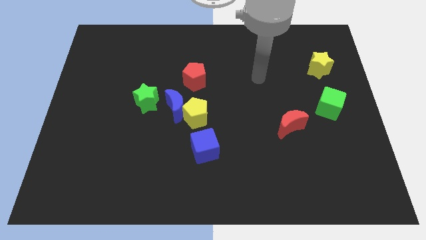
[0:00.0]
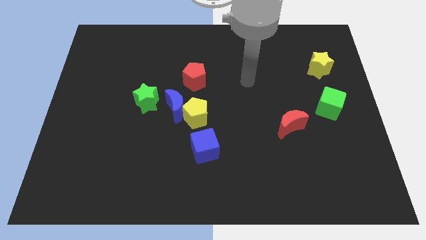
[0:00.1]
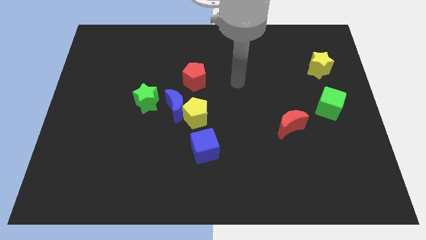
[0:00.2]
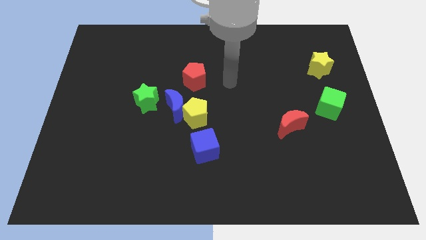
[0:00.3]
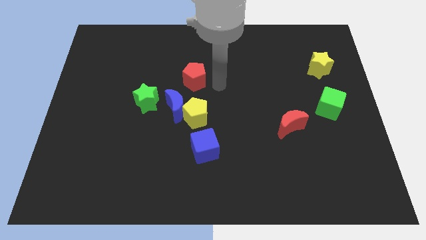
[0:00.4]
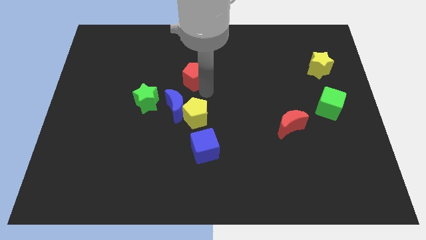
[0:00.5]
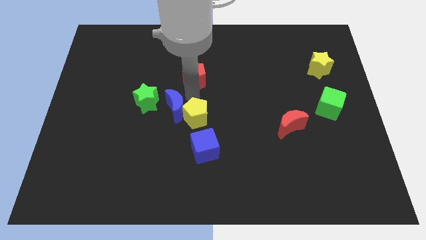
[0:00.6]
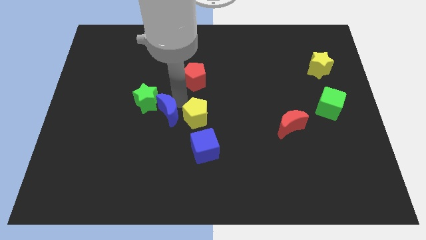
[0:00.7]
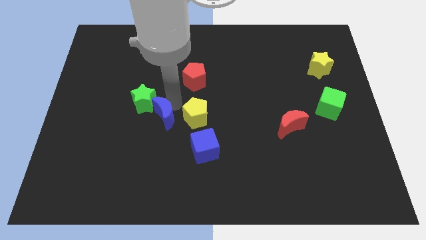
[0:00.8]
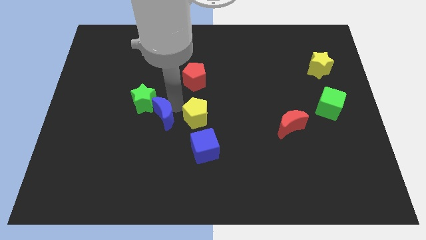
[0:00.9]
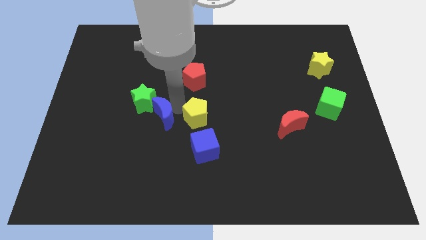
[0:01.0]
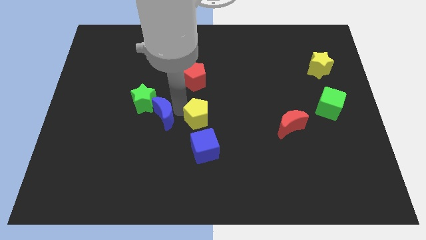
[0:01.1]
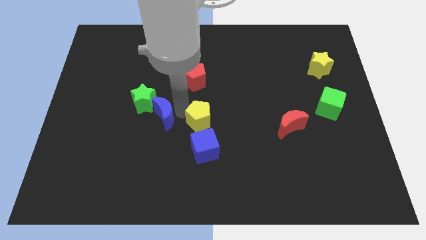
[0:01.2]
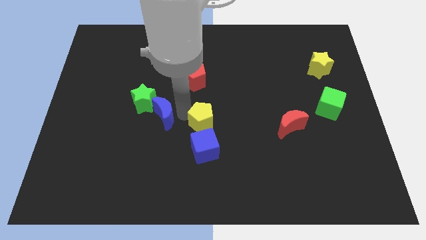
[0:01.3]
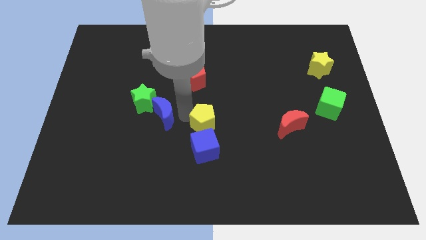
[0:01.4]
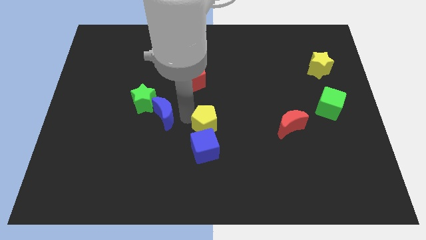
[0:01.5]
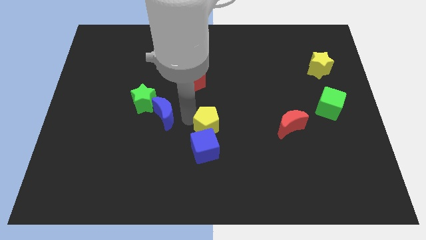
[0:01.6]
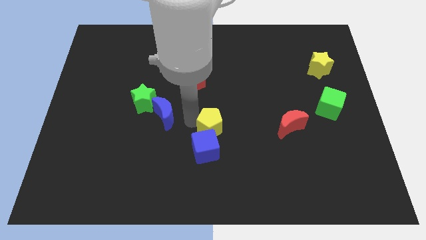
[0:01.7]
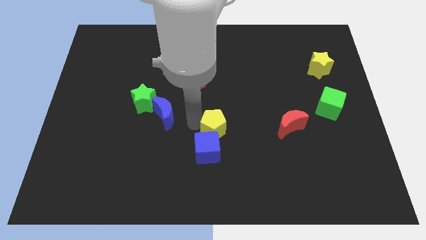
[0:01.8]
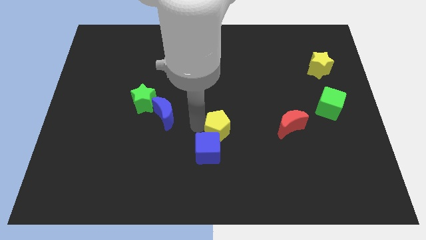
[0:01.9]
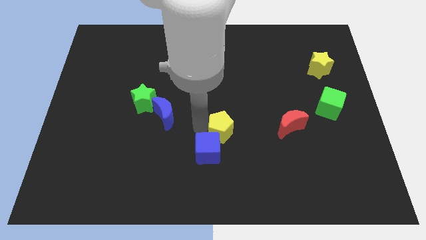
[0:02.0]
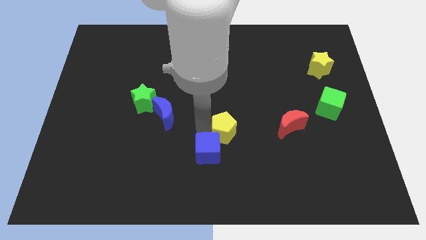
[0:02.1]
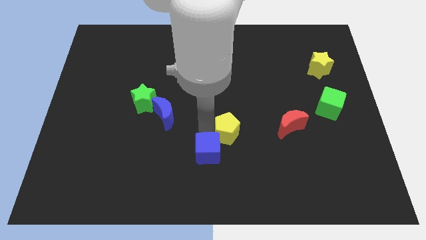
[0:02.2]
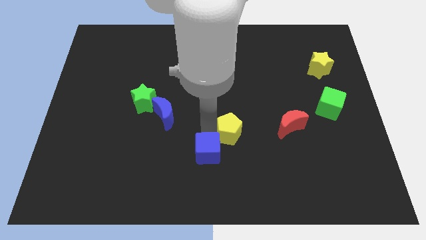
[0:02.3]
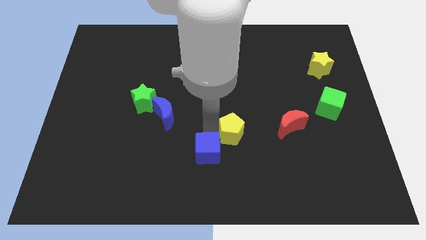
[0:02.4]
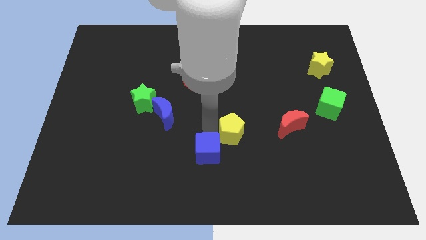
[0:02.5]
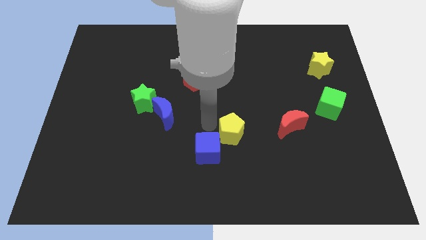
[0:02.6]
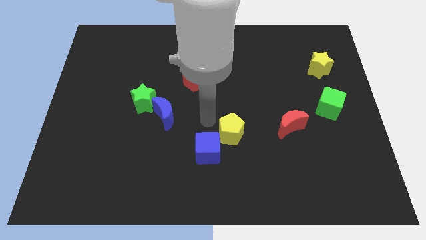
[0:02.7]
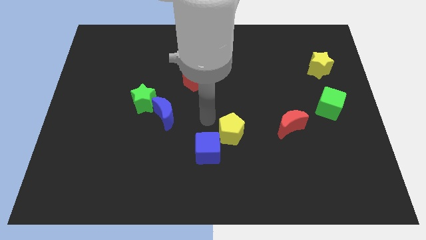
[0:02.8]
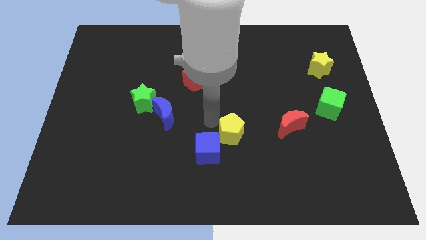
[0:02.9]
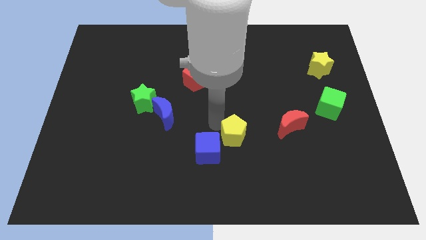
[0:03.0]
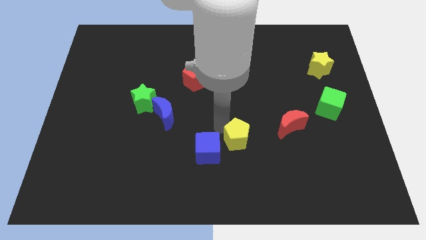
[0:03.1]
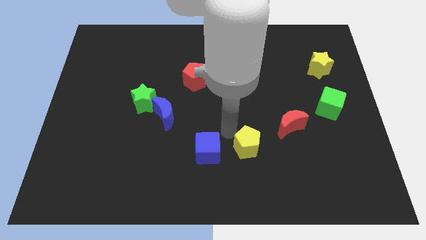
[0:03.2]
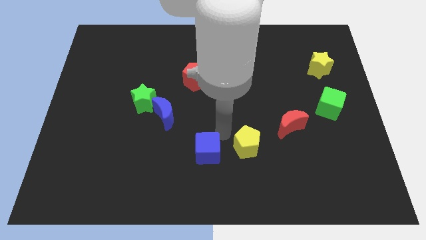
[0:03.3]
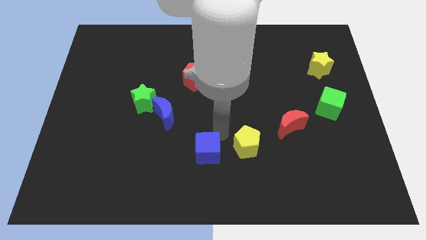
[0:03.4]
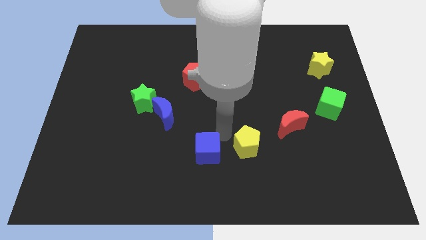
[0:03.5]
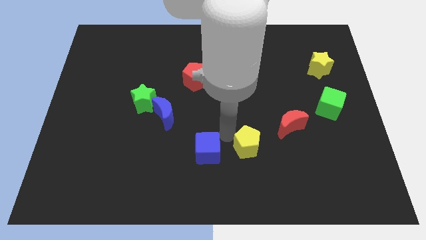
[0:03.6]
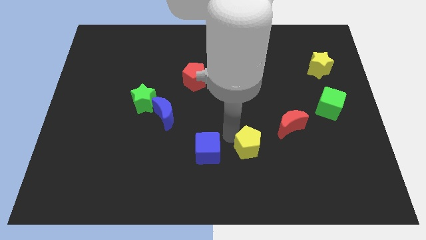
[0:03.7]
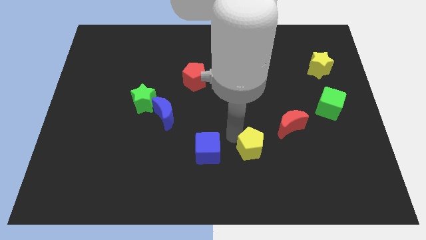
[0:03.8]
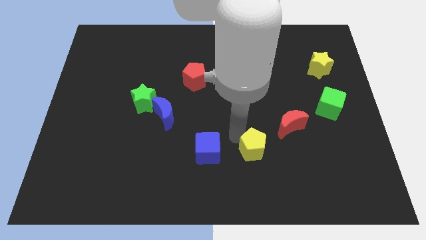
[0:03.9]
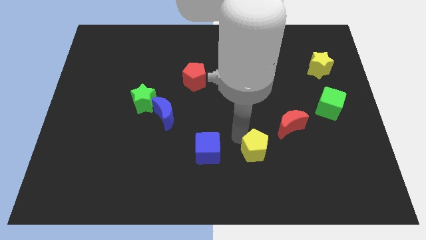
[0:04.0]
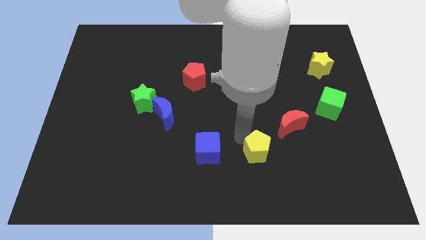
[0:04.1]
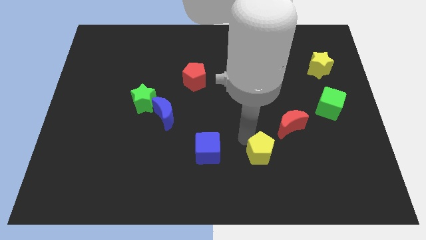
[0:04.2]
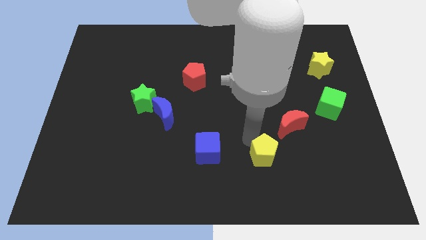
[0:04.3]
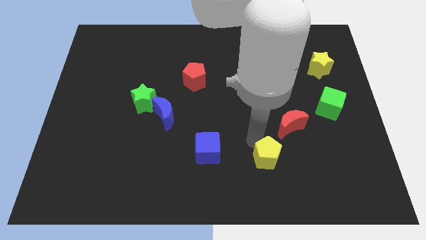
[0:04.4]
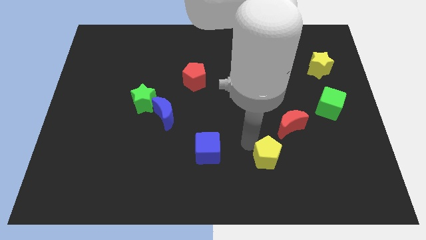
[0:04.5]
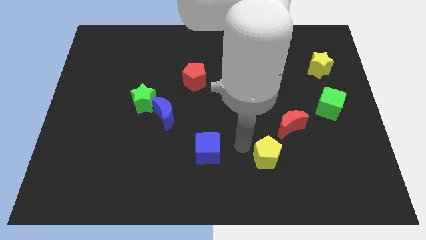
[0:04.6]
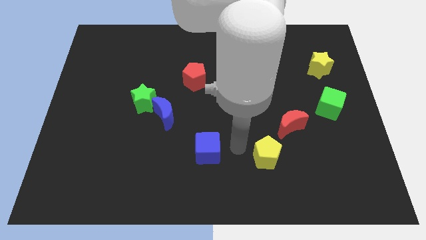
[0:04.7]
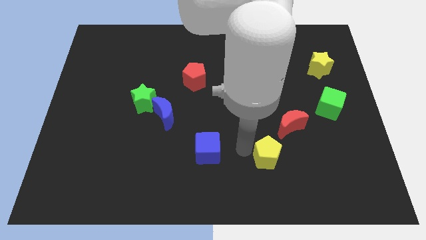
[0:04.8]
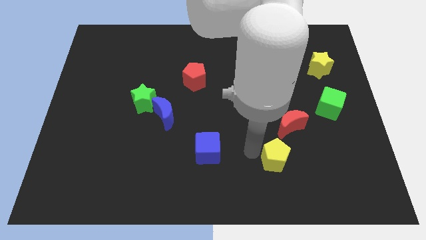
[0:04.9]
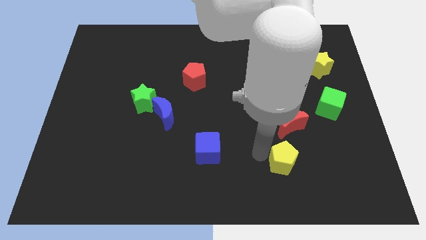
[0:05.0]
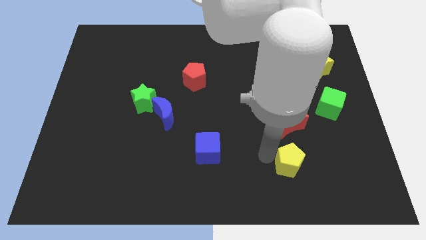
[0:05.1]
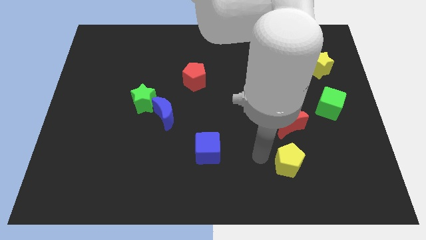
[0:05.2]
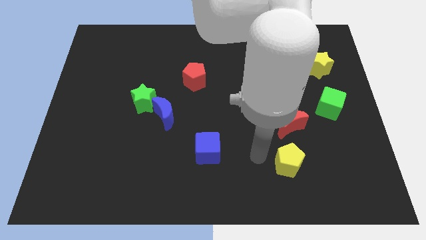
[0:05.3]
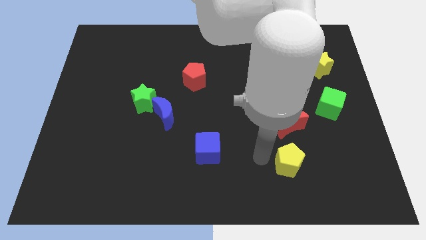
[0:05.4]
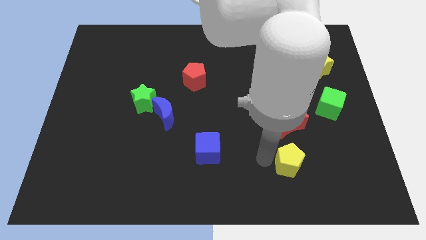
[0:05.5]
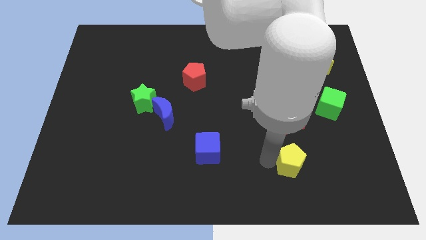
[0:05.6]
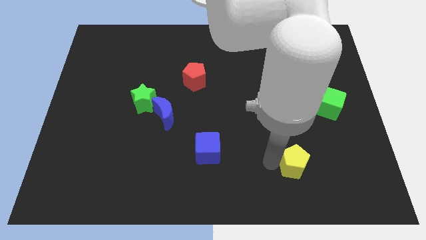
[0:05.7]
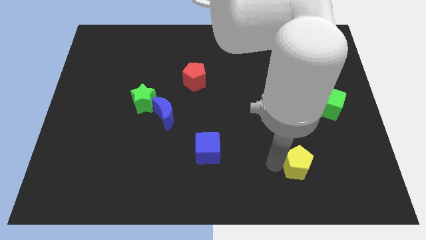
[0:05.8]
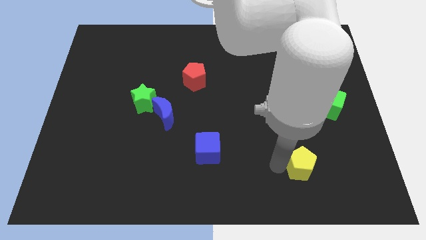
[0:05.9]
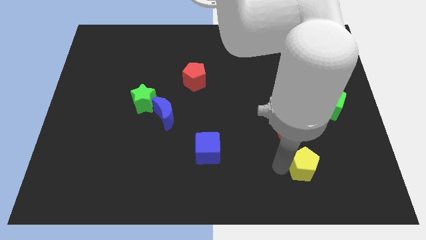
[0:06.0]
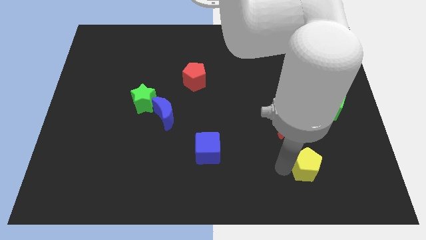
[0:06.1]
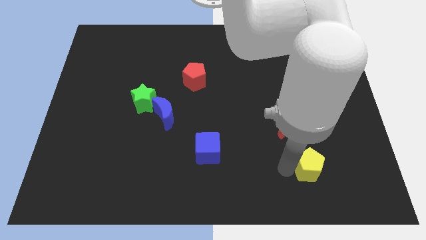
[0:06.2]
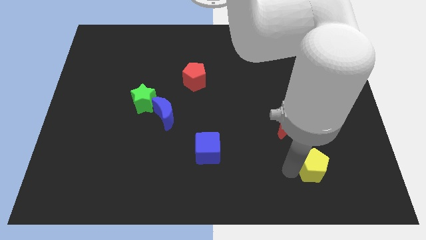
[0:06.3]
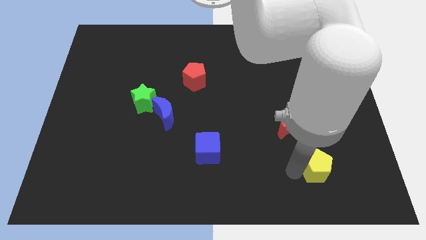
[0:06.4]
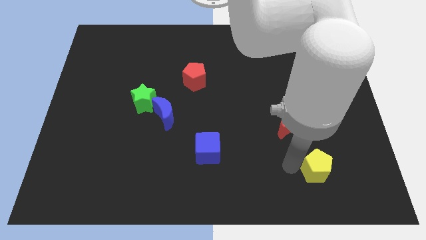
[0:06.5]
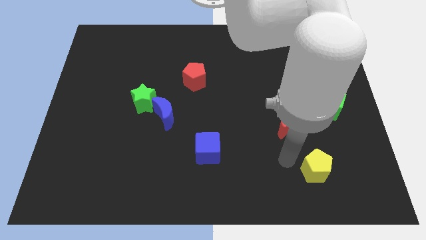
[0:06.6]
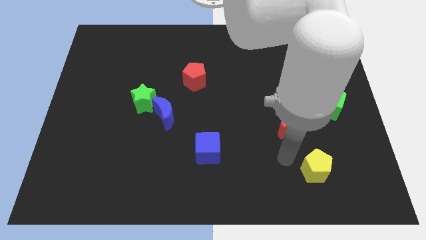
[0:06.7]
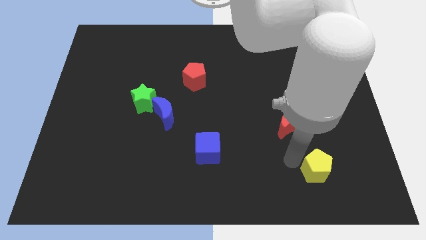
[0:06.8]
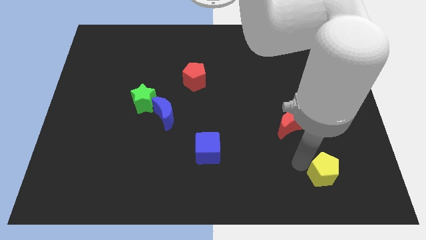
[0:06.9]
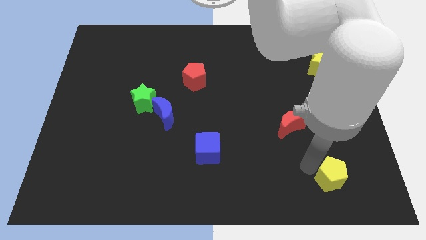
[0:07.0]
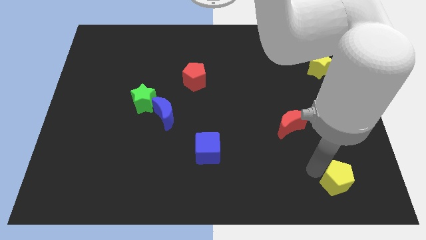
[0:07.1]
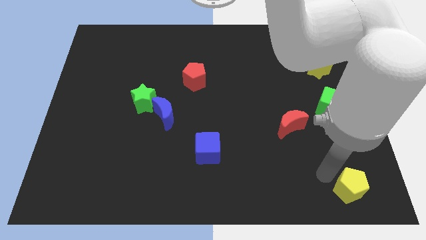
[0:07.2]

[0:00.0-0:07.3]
slide the yellow pentagon to the bottom right
